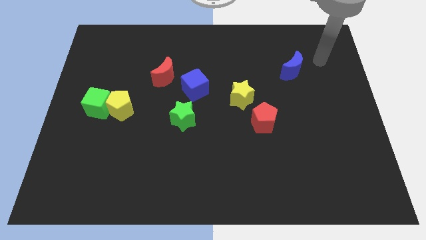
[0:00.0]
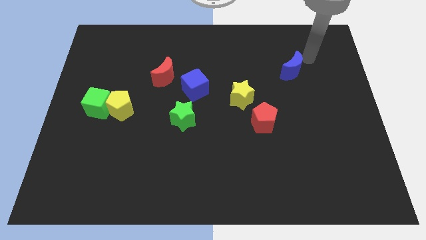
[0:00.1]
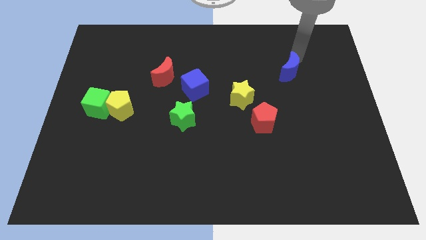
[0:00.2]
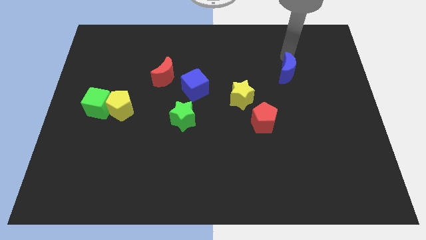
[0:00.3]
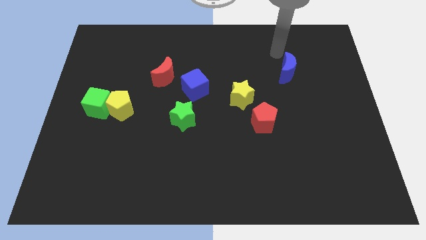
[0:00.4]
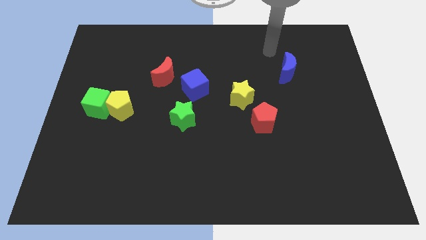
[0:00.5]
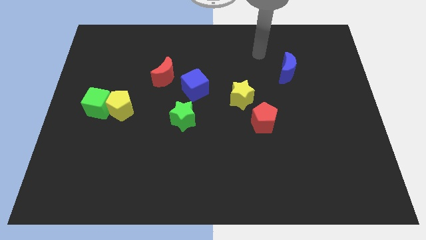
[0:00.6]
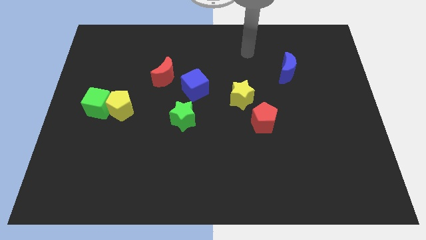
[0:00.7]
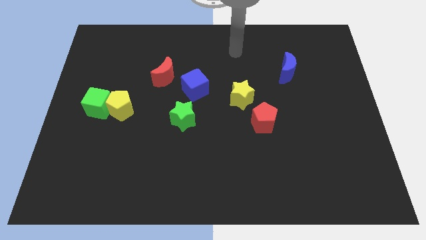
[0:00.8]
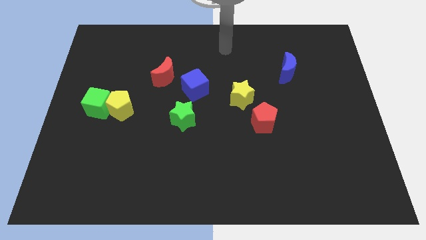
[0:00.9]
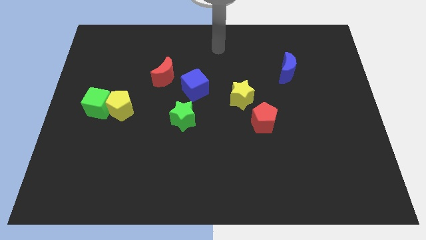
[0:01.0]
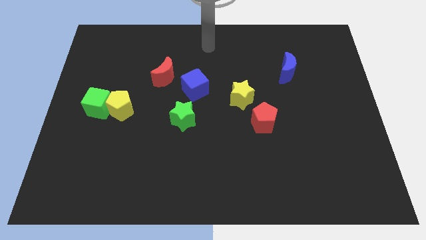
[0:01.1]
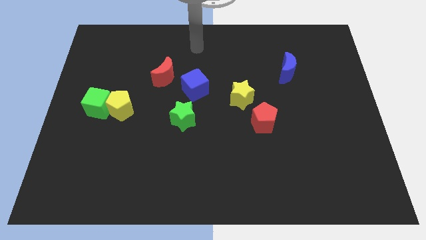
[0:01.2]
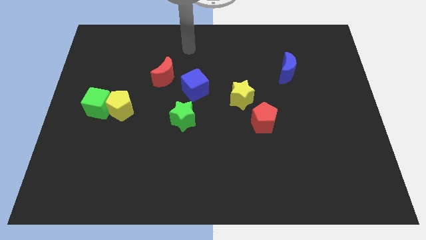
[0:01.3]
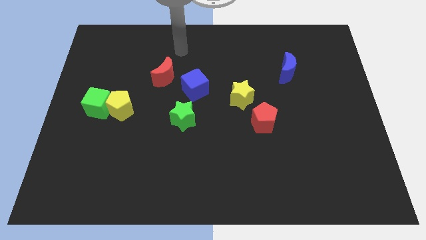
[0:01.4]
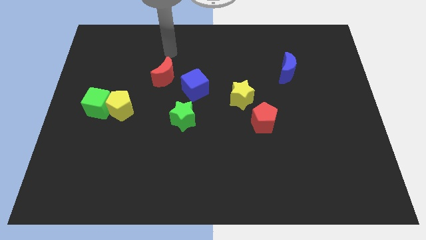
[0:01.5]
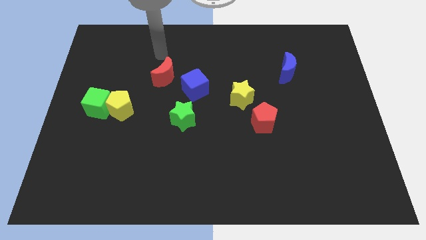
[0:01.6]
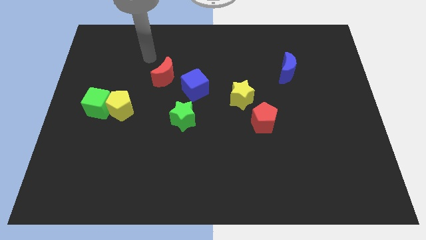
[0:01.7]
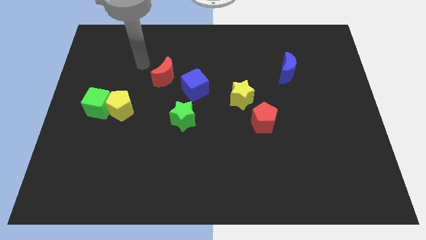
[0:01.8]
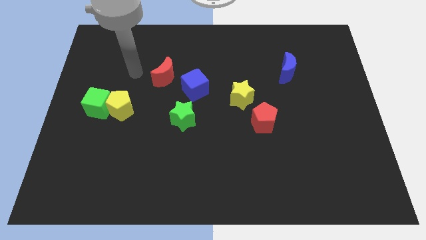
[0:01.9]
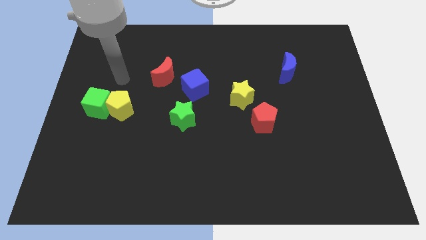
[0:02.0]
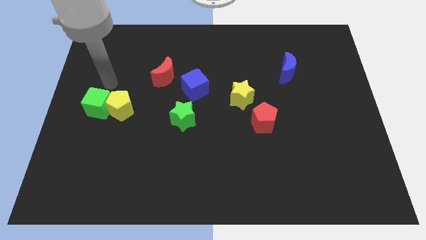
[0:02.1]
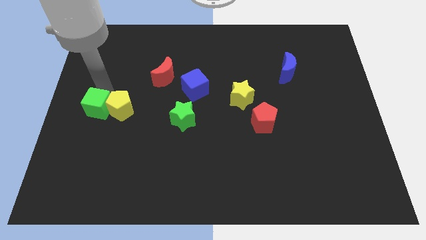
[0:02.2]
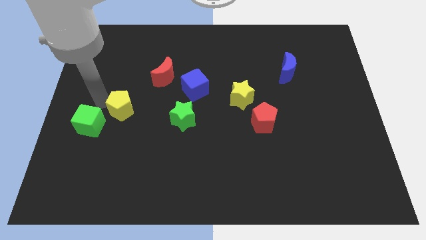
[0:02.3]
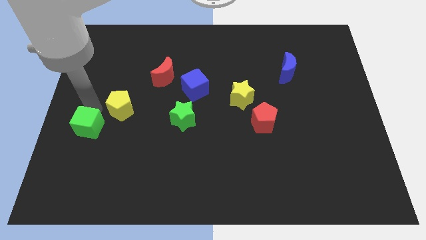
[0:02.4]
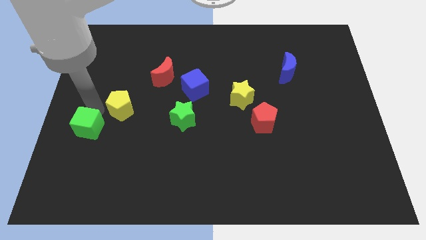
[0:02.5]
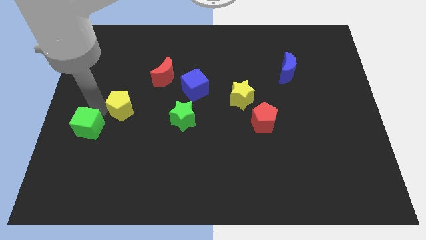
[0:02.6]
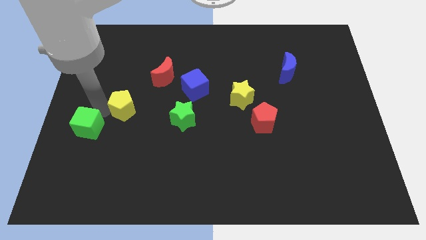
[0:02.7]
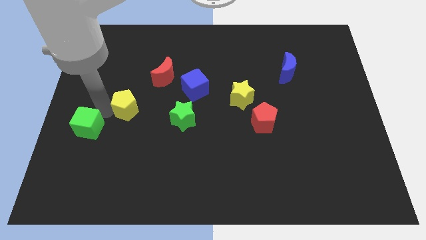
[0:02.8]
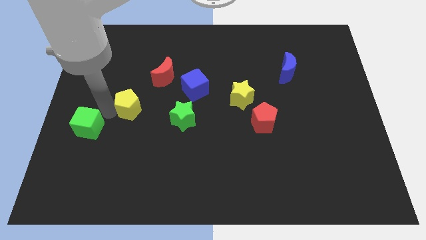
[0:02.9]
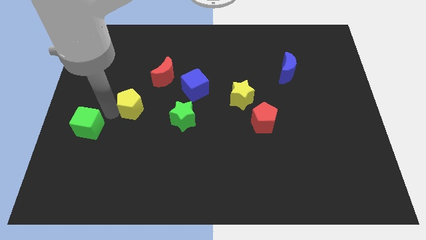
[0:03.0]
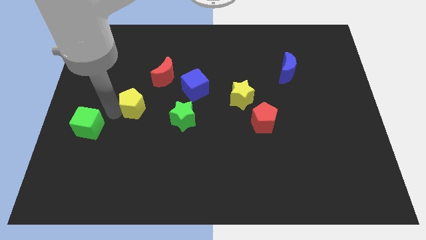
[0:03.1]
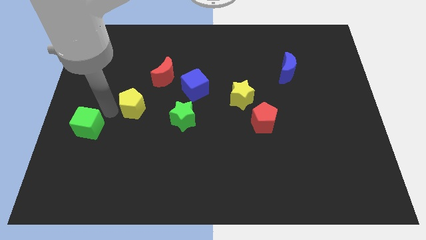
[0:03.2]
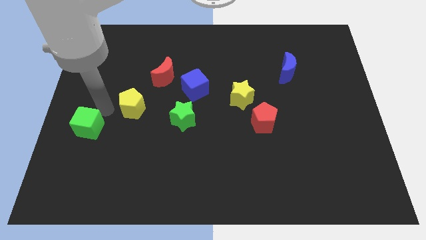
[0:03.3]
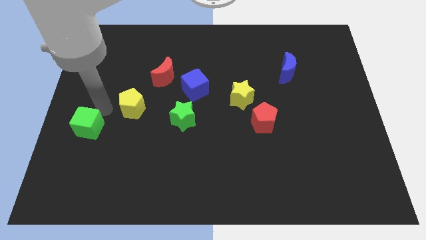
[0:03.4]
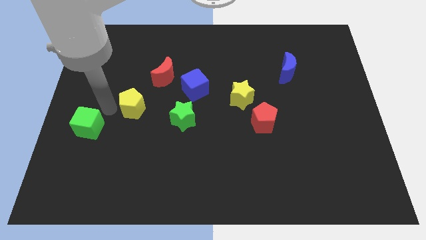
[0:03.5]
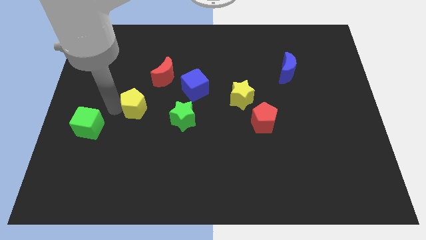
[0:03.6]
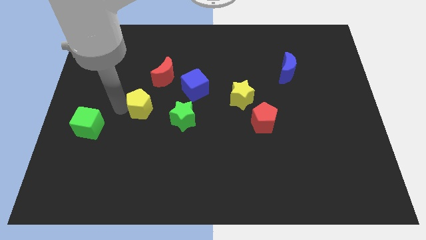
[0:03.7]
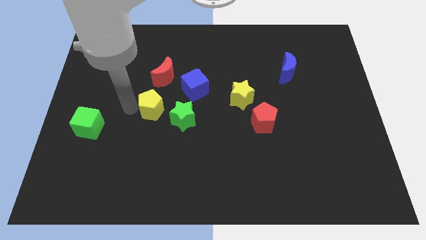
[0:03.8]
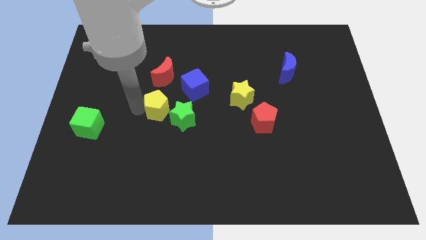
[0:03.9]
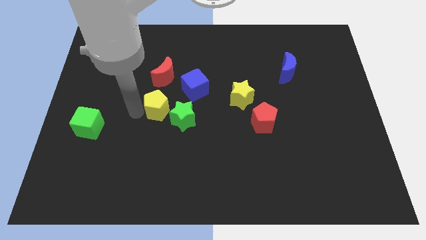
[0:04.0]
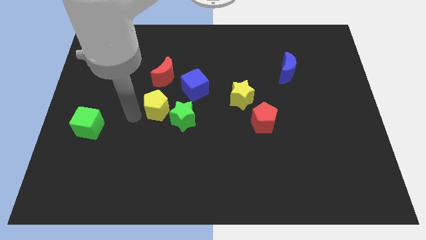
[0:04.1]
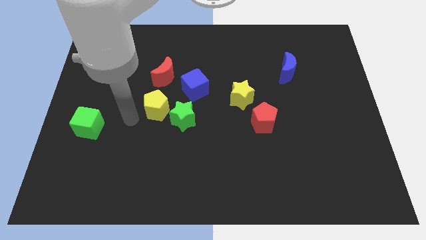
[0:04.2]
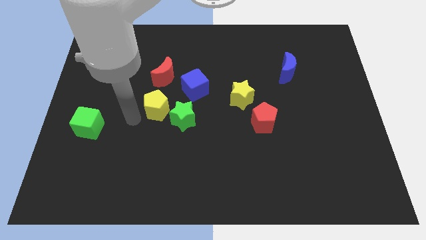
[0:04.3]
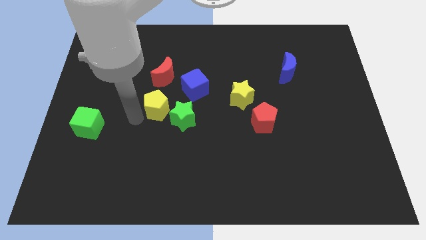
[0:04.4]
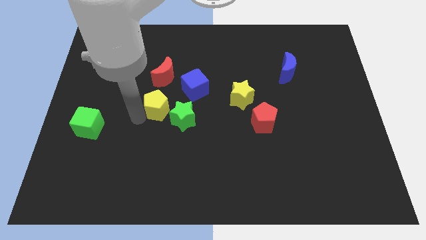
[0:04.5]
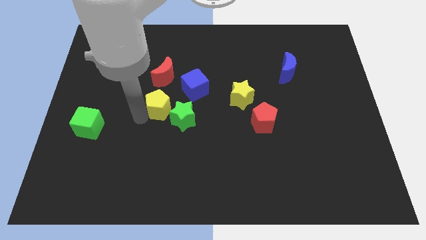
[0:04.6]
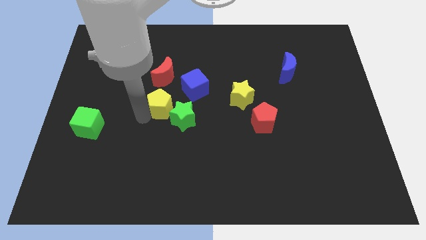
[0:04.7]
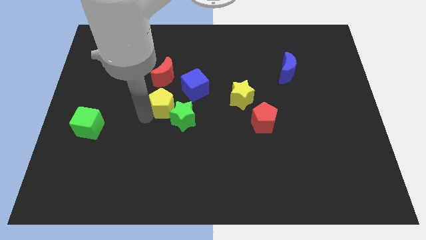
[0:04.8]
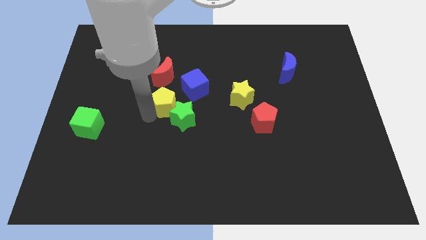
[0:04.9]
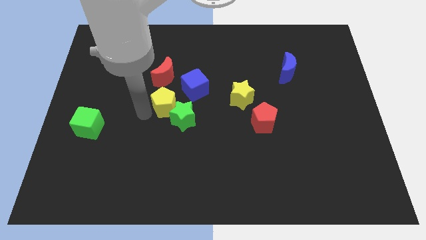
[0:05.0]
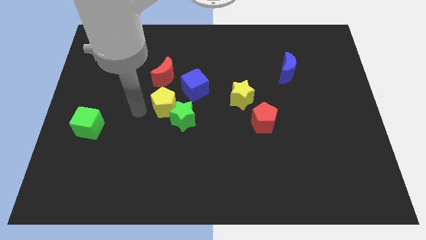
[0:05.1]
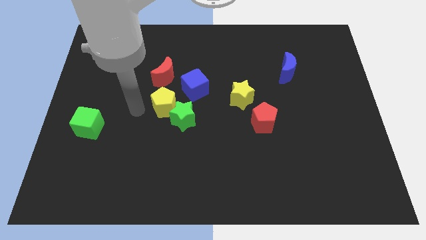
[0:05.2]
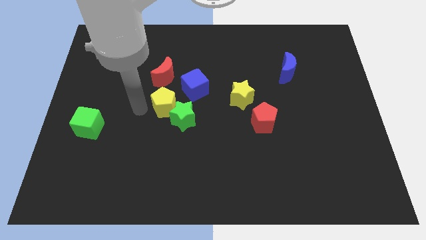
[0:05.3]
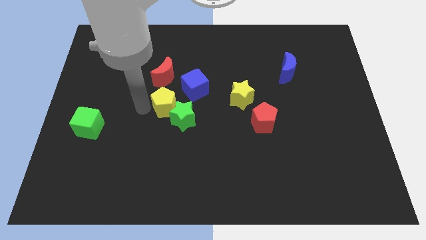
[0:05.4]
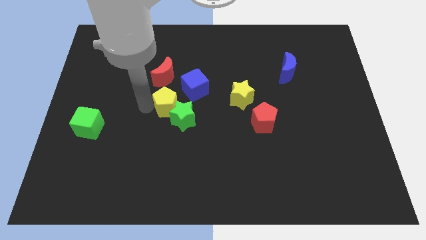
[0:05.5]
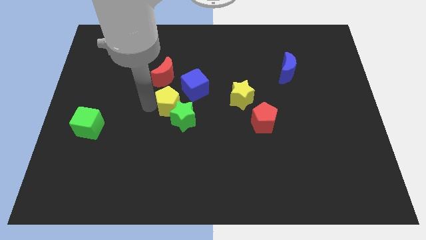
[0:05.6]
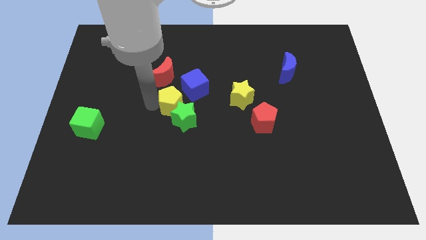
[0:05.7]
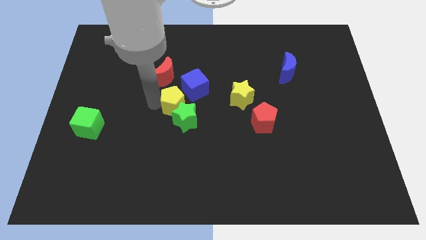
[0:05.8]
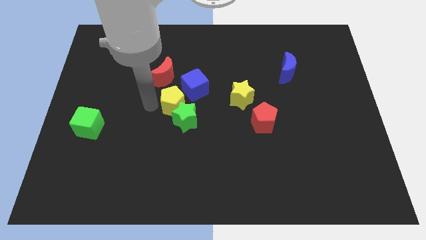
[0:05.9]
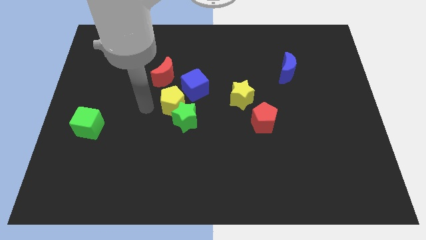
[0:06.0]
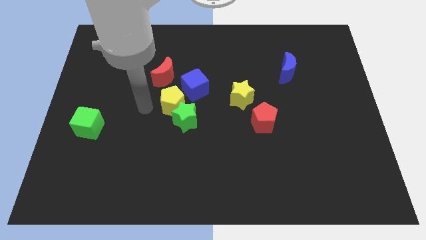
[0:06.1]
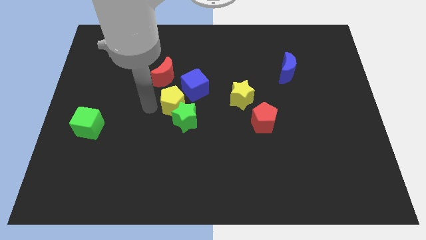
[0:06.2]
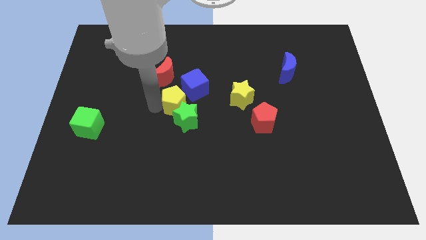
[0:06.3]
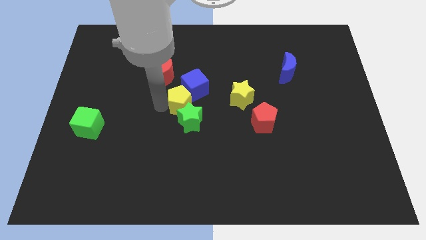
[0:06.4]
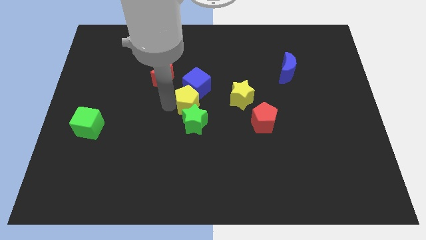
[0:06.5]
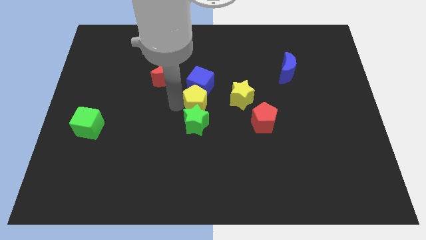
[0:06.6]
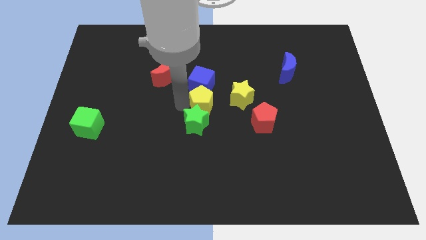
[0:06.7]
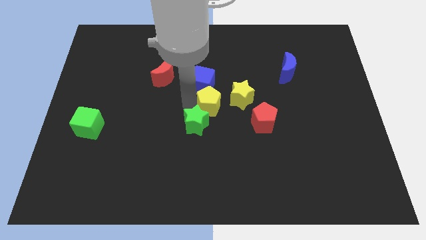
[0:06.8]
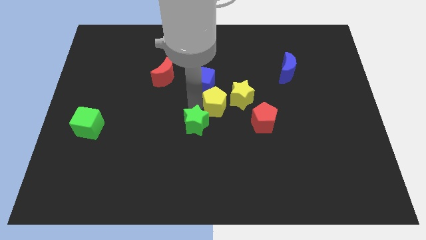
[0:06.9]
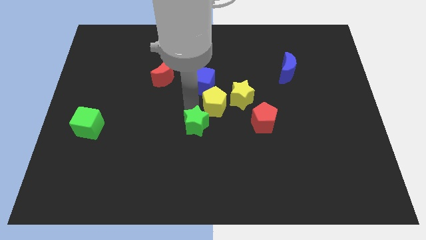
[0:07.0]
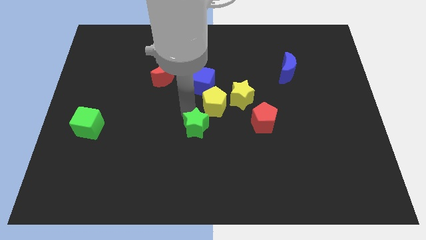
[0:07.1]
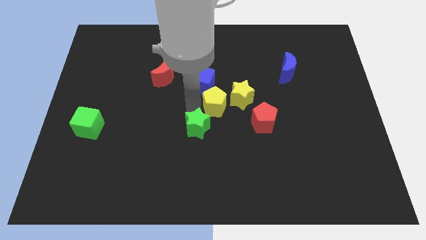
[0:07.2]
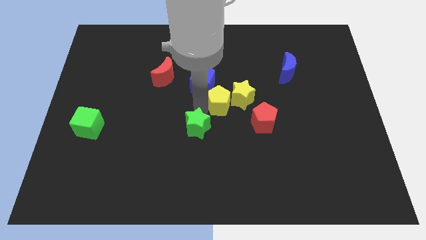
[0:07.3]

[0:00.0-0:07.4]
push the yellow pentagon to the yellow star

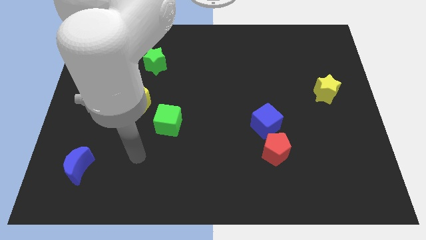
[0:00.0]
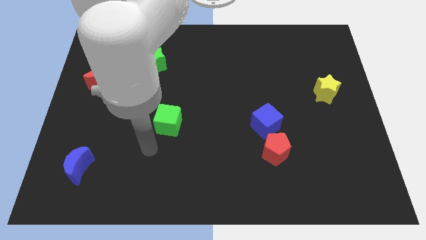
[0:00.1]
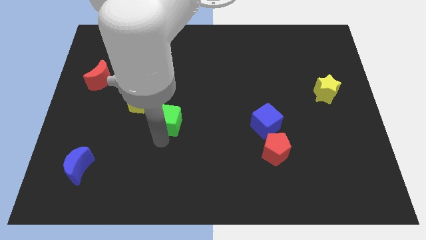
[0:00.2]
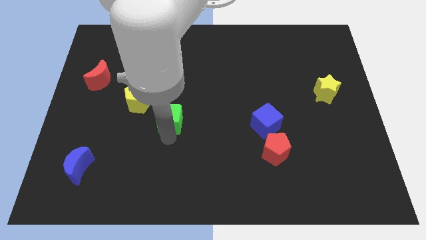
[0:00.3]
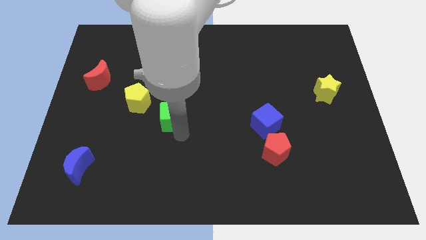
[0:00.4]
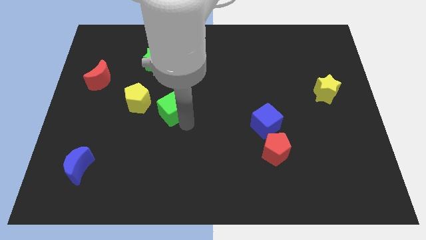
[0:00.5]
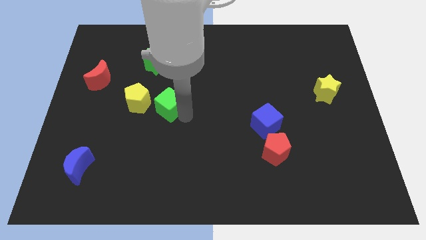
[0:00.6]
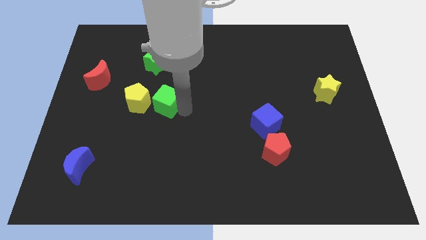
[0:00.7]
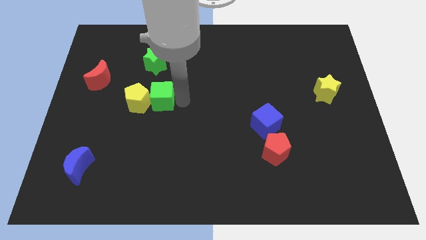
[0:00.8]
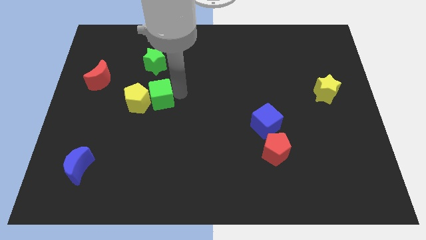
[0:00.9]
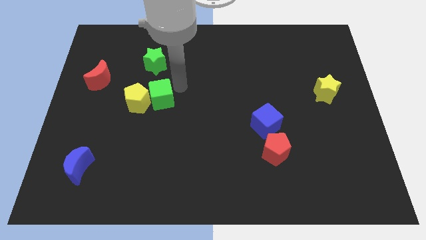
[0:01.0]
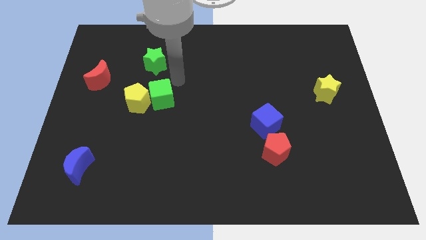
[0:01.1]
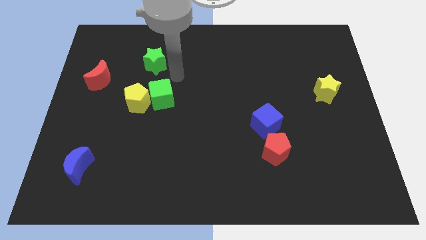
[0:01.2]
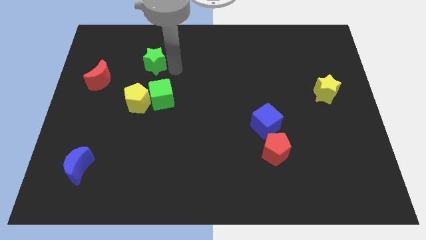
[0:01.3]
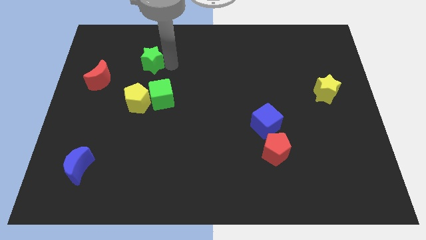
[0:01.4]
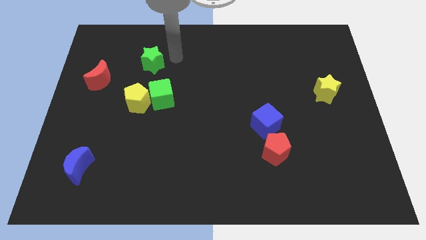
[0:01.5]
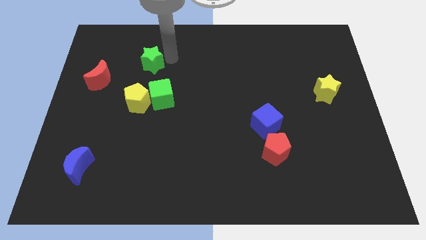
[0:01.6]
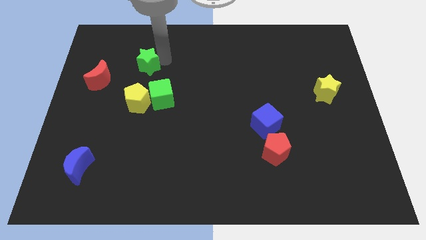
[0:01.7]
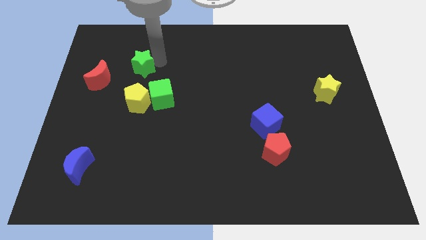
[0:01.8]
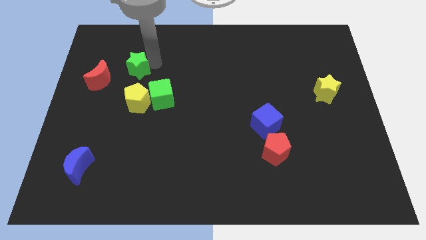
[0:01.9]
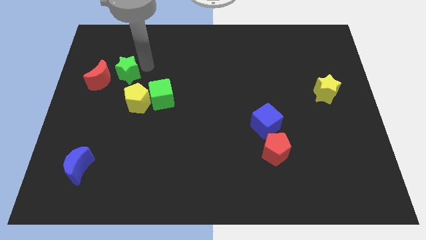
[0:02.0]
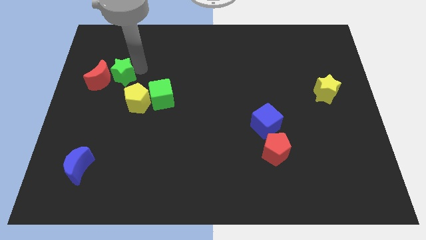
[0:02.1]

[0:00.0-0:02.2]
move the green star close to the red moon
